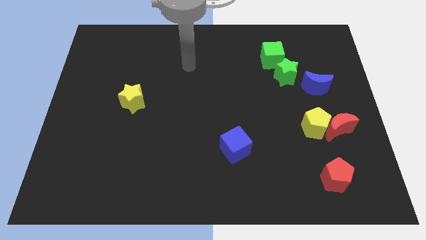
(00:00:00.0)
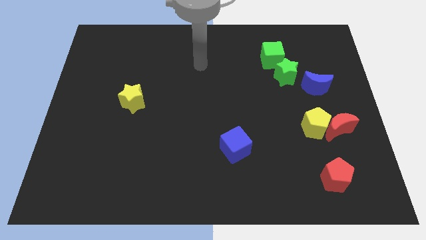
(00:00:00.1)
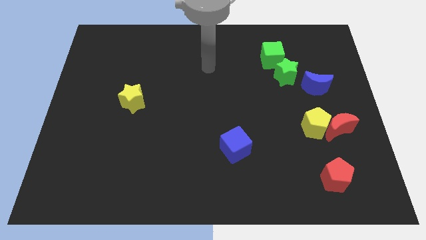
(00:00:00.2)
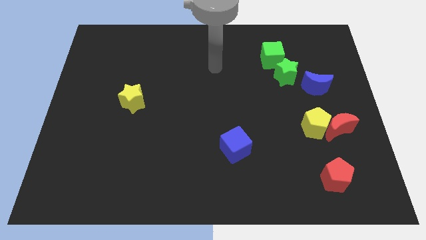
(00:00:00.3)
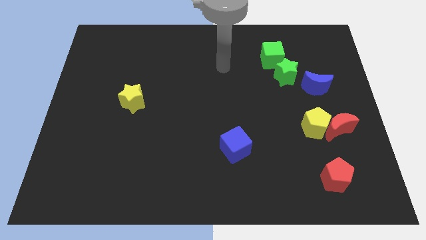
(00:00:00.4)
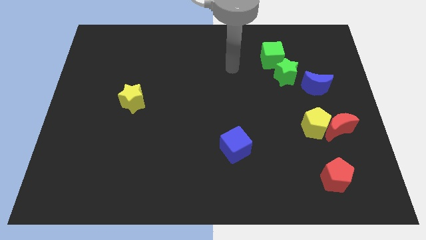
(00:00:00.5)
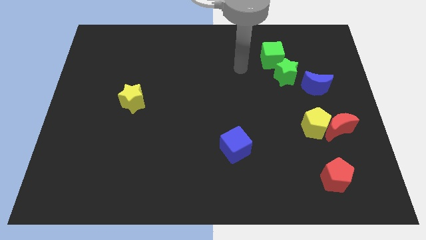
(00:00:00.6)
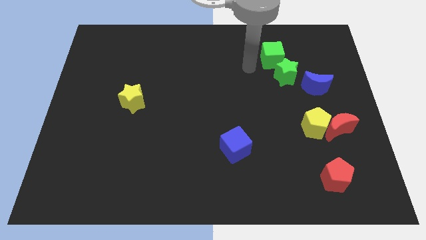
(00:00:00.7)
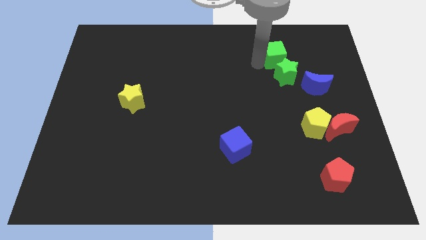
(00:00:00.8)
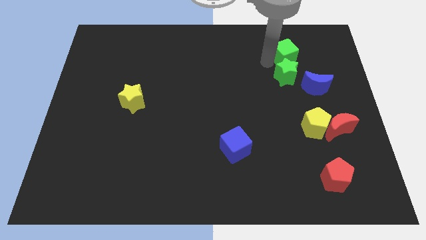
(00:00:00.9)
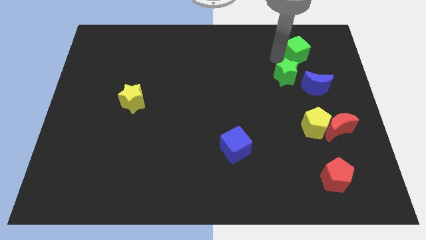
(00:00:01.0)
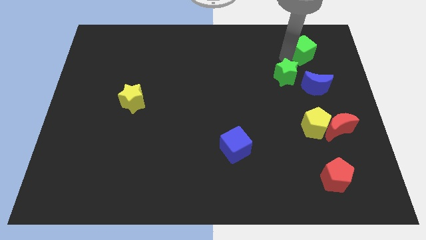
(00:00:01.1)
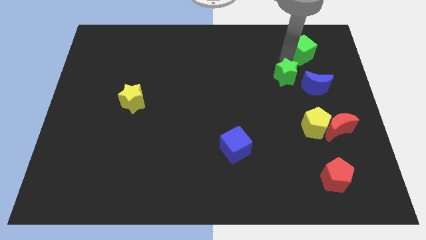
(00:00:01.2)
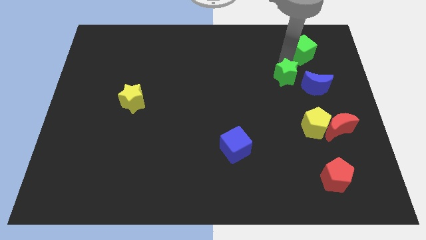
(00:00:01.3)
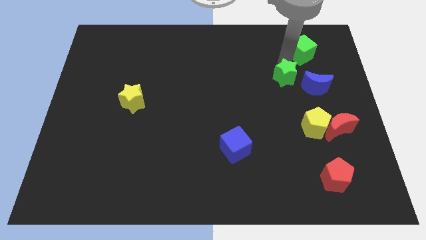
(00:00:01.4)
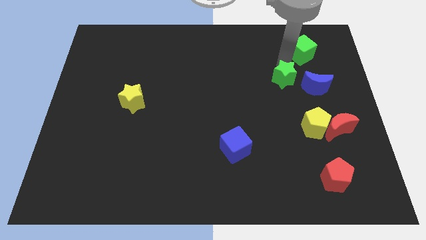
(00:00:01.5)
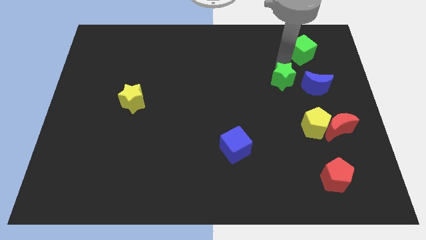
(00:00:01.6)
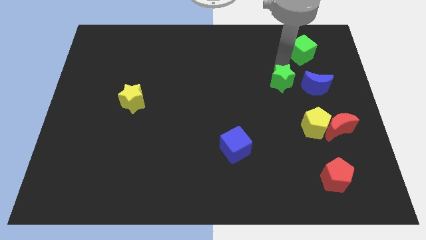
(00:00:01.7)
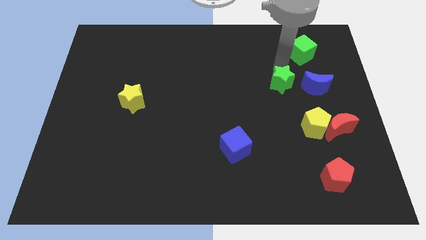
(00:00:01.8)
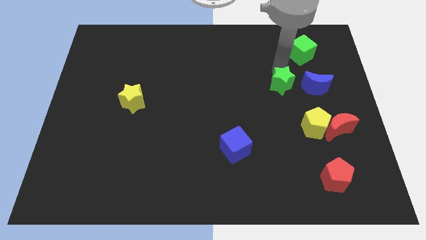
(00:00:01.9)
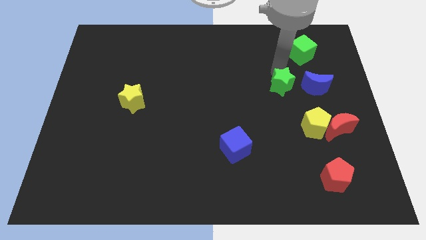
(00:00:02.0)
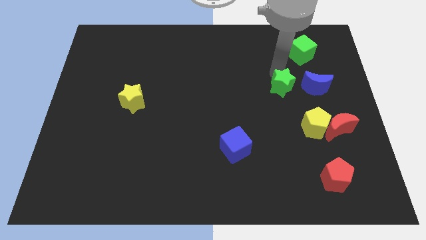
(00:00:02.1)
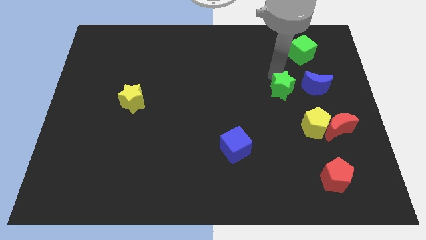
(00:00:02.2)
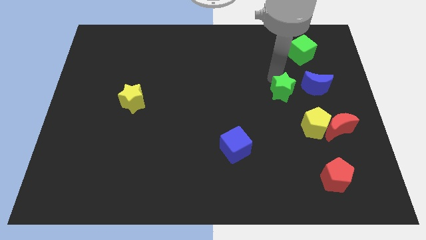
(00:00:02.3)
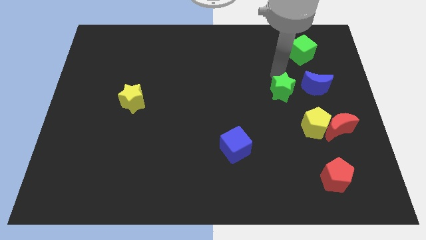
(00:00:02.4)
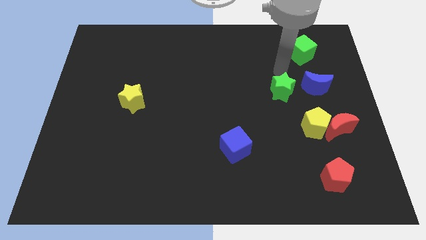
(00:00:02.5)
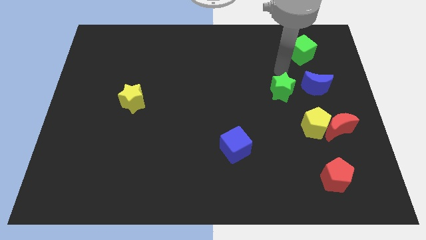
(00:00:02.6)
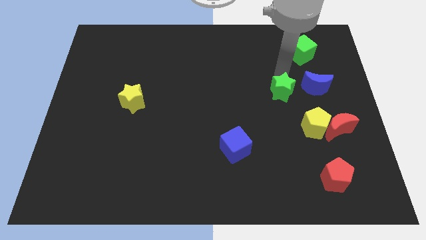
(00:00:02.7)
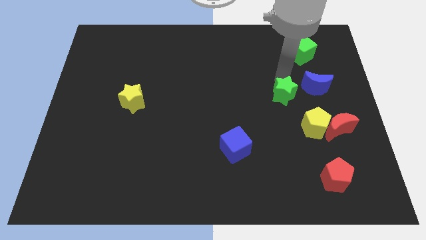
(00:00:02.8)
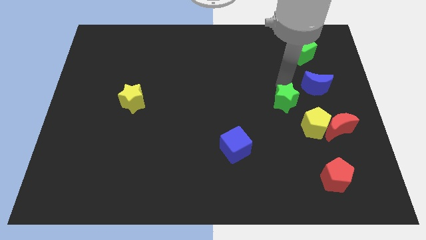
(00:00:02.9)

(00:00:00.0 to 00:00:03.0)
slightly push the green star downwards

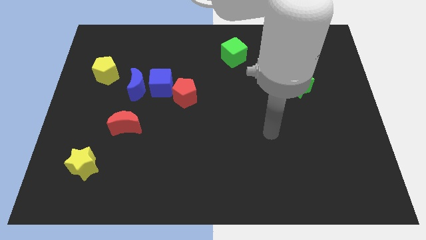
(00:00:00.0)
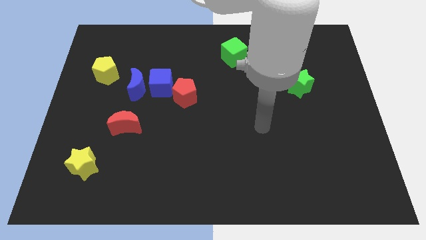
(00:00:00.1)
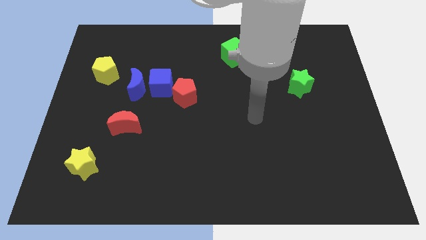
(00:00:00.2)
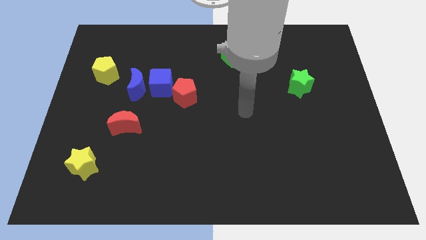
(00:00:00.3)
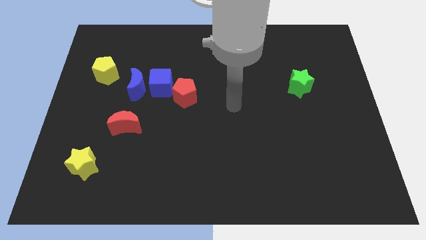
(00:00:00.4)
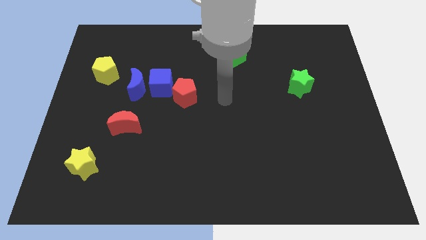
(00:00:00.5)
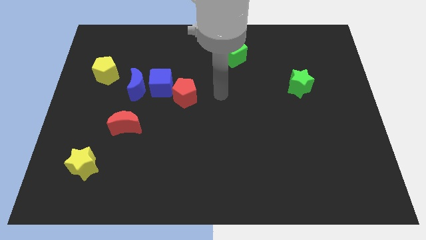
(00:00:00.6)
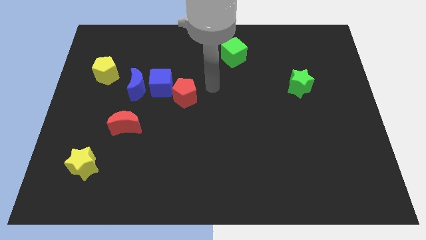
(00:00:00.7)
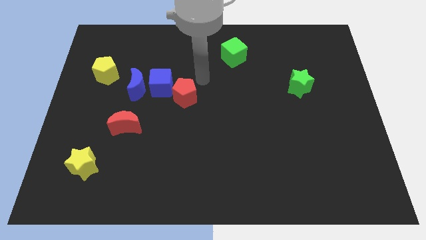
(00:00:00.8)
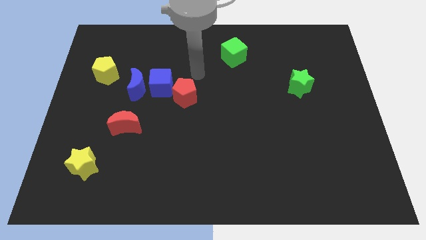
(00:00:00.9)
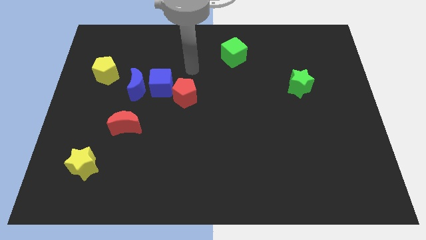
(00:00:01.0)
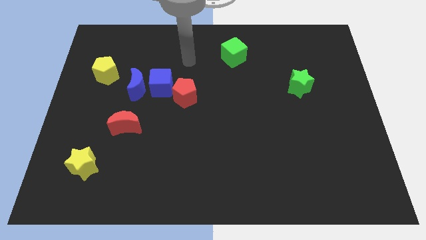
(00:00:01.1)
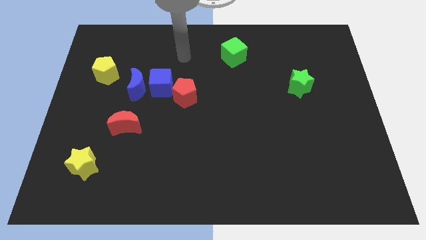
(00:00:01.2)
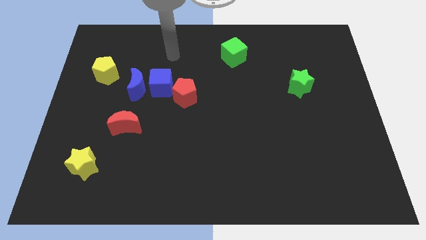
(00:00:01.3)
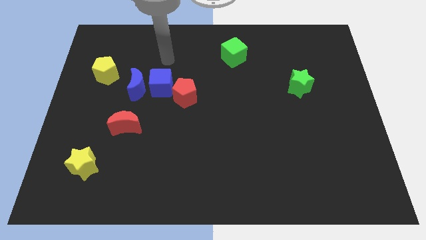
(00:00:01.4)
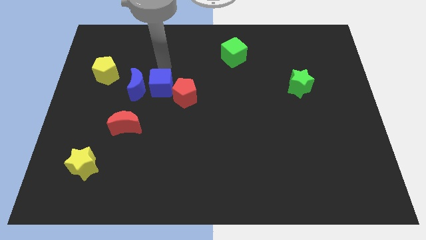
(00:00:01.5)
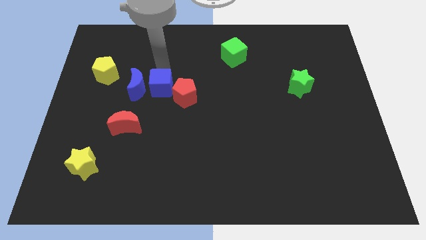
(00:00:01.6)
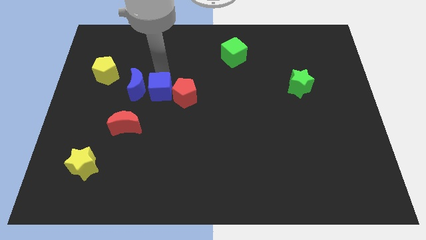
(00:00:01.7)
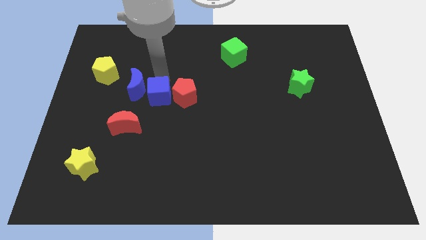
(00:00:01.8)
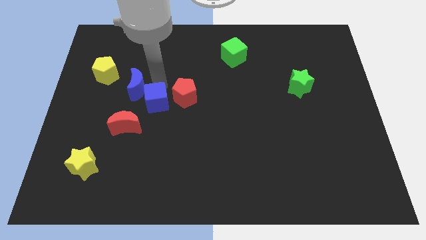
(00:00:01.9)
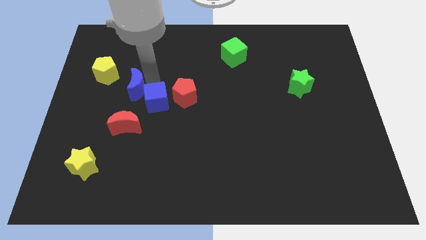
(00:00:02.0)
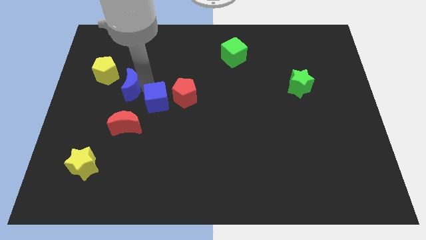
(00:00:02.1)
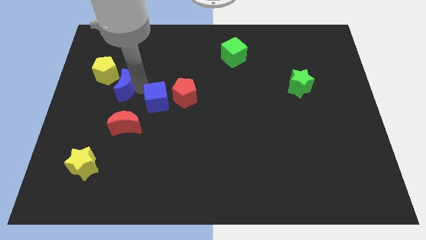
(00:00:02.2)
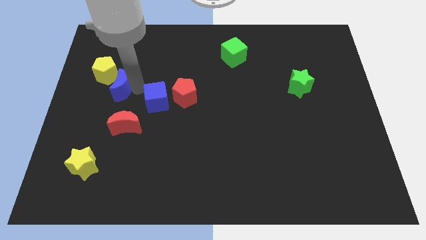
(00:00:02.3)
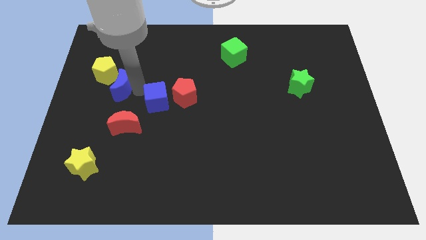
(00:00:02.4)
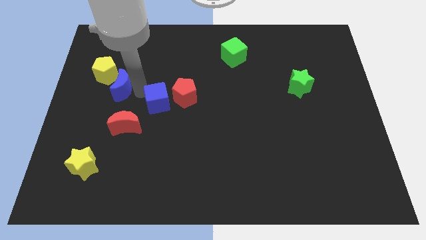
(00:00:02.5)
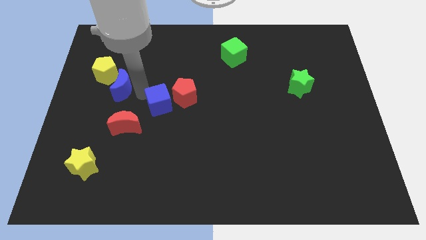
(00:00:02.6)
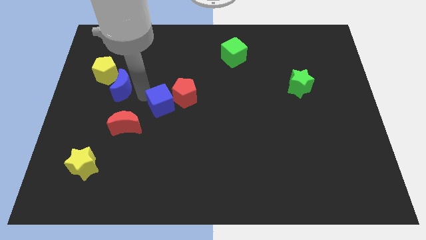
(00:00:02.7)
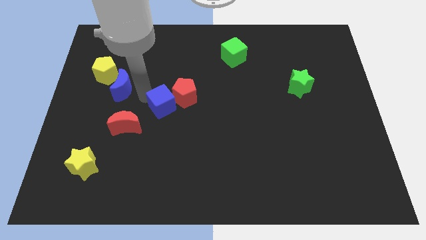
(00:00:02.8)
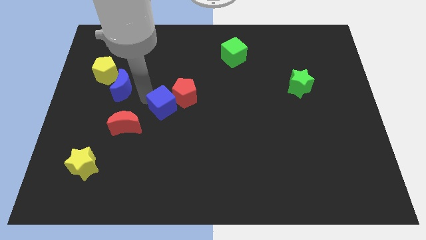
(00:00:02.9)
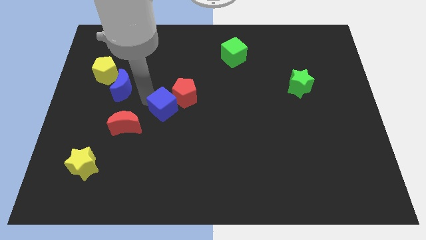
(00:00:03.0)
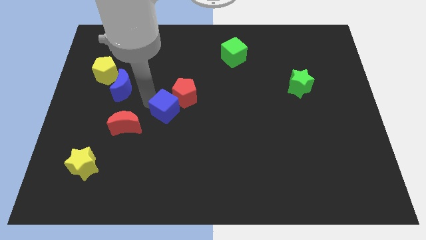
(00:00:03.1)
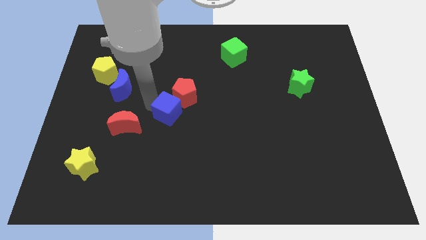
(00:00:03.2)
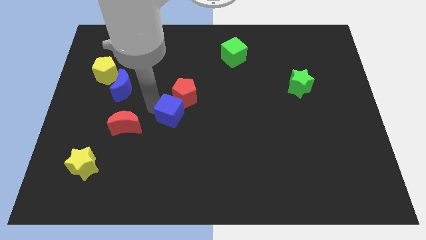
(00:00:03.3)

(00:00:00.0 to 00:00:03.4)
slide the blue cube downwards and right somewhat

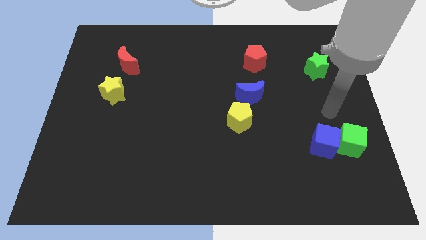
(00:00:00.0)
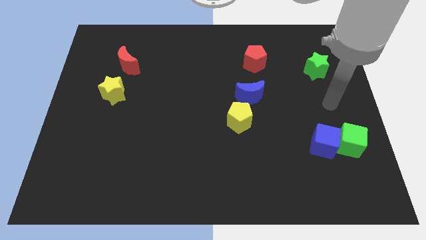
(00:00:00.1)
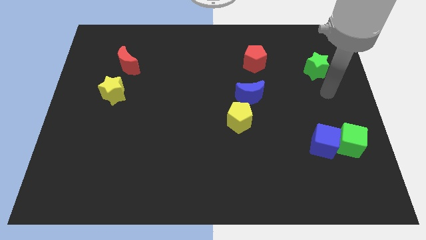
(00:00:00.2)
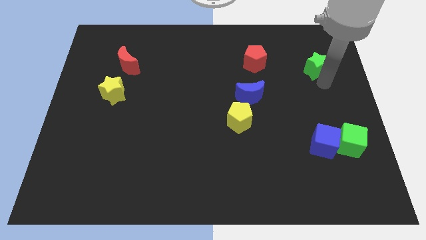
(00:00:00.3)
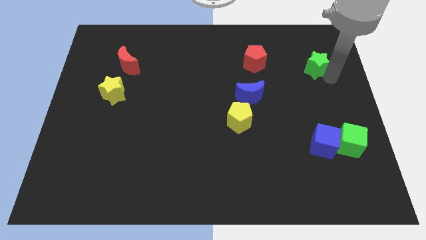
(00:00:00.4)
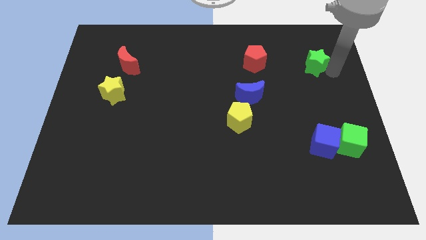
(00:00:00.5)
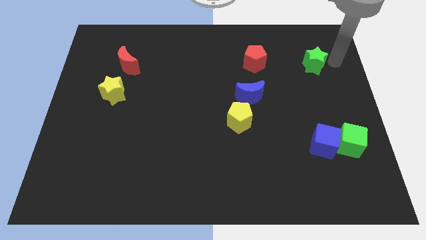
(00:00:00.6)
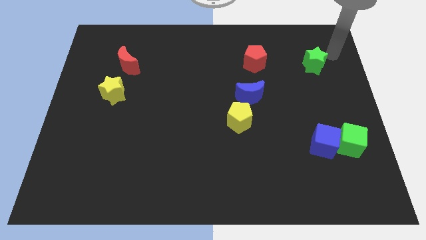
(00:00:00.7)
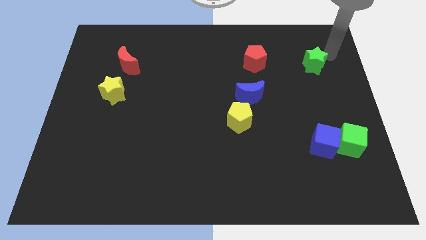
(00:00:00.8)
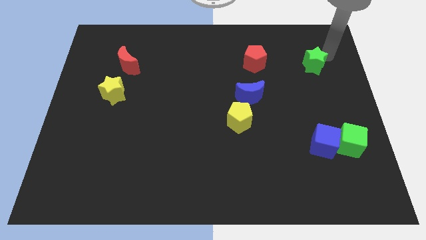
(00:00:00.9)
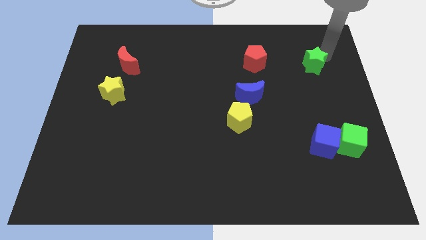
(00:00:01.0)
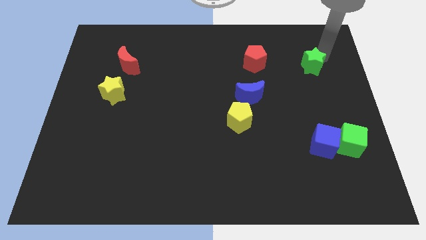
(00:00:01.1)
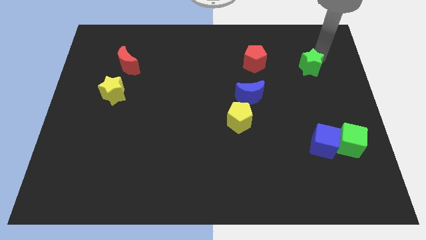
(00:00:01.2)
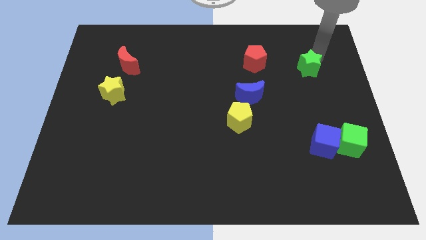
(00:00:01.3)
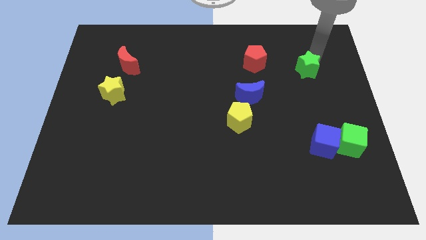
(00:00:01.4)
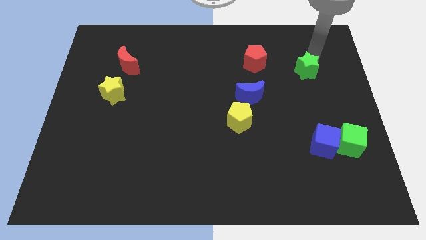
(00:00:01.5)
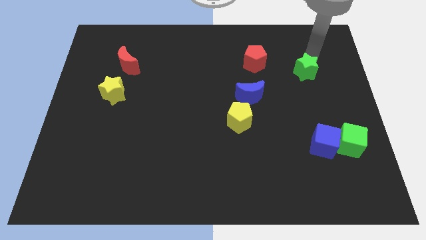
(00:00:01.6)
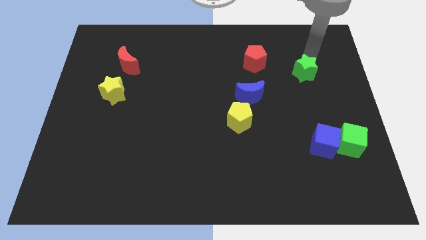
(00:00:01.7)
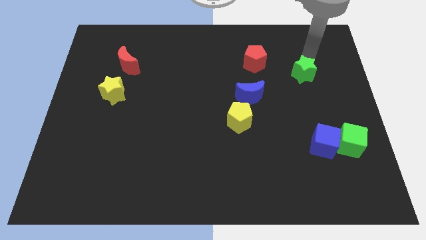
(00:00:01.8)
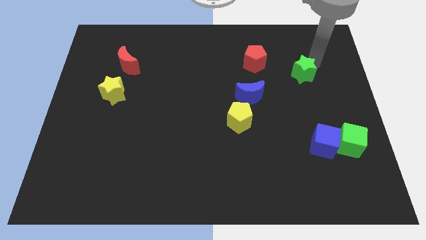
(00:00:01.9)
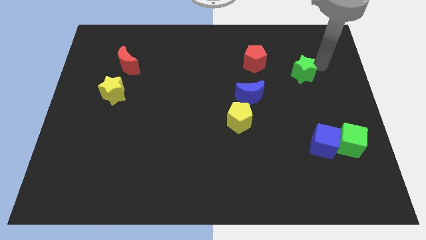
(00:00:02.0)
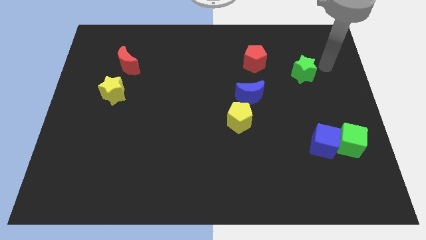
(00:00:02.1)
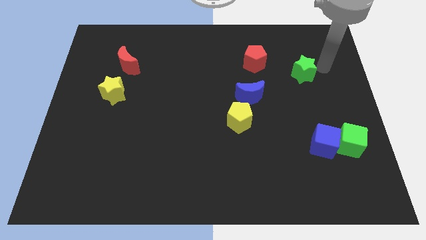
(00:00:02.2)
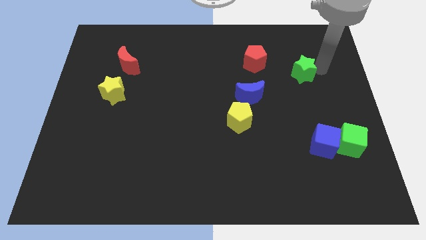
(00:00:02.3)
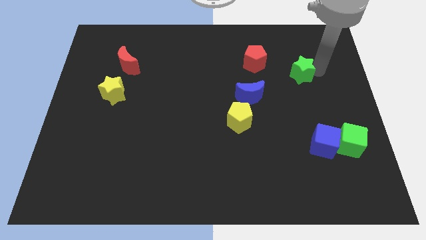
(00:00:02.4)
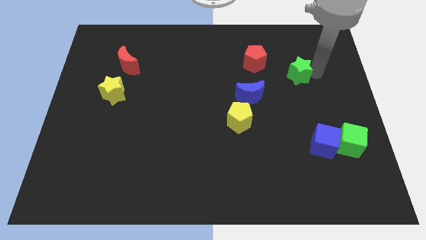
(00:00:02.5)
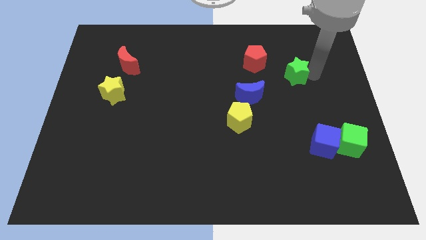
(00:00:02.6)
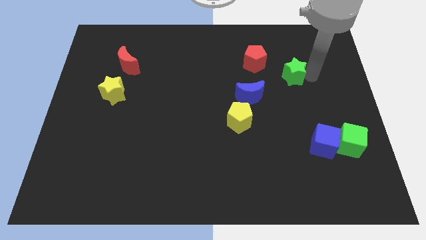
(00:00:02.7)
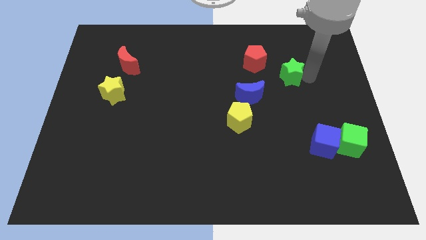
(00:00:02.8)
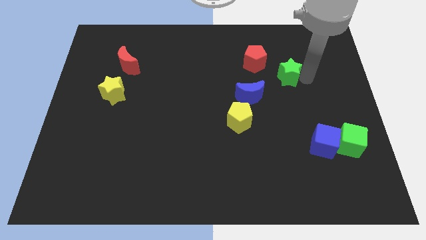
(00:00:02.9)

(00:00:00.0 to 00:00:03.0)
slide the green star somewhat left
